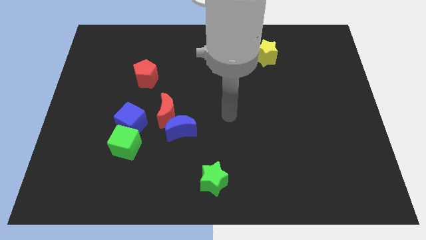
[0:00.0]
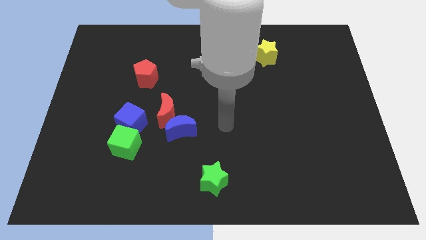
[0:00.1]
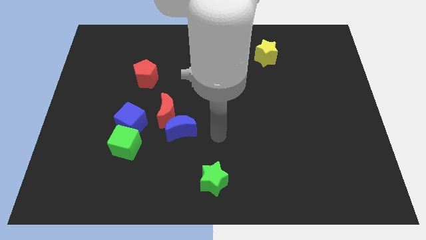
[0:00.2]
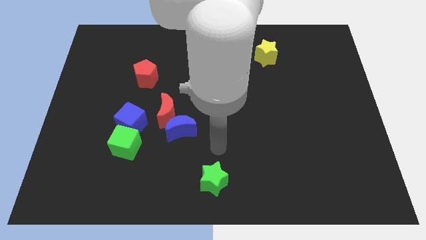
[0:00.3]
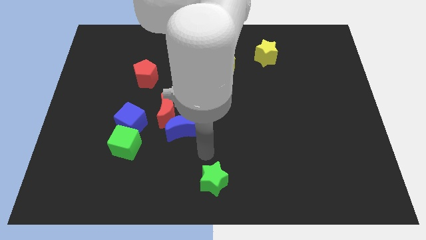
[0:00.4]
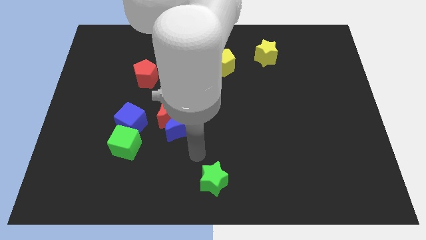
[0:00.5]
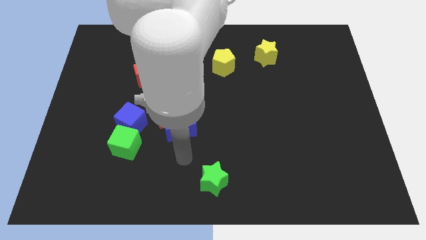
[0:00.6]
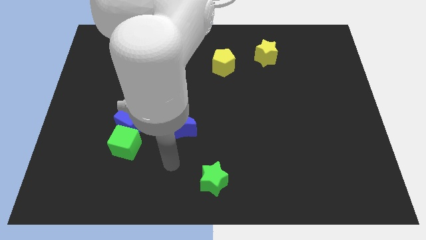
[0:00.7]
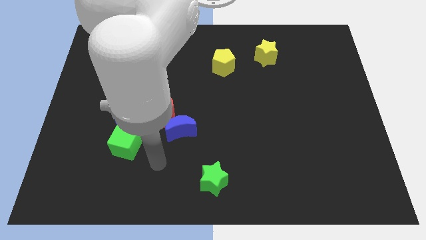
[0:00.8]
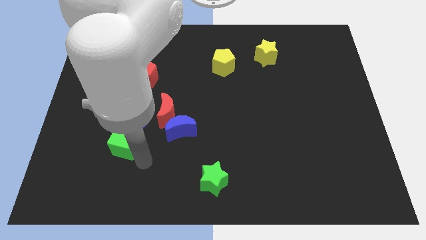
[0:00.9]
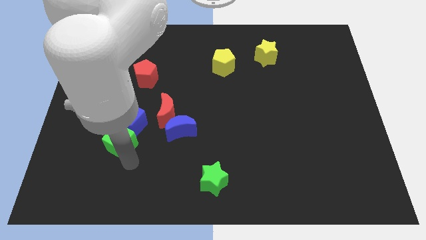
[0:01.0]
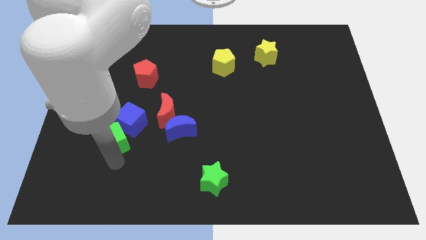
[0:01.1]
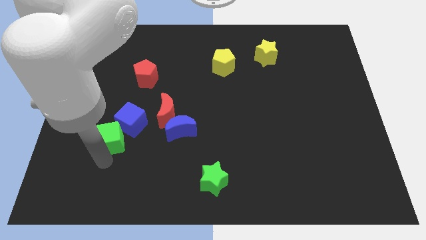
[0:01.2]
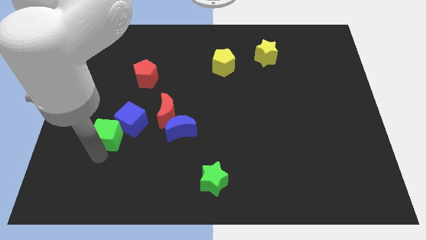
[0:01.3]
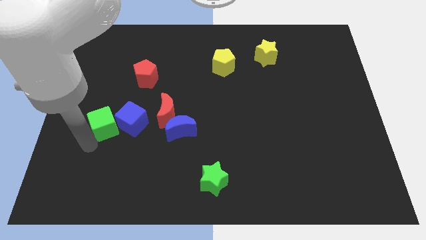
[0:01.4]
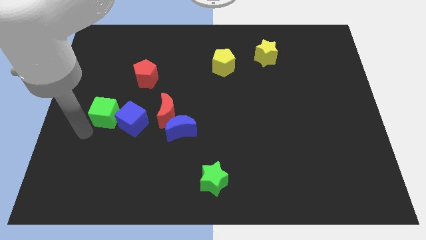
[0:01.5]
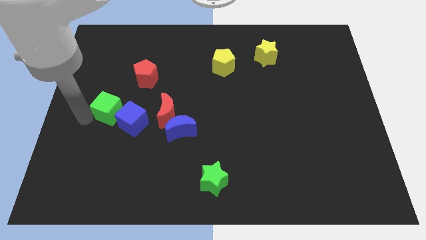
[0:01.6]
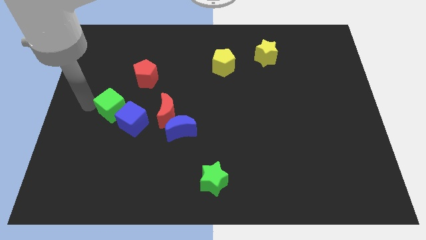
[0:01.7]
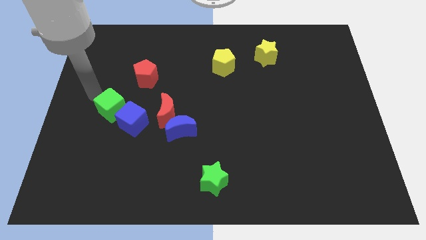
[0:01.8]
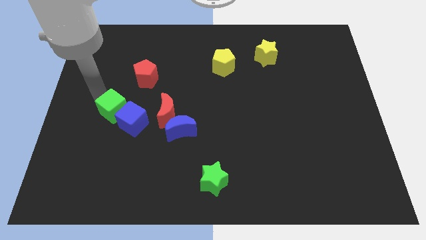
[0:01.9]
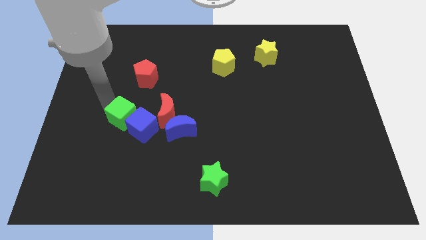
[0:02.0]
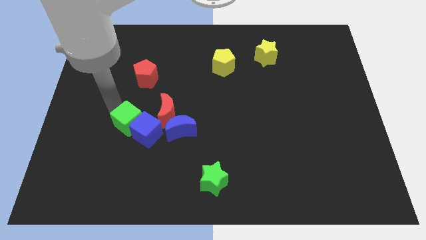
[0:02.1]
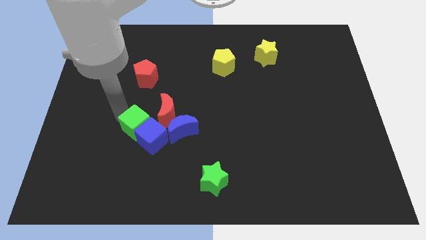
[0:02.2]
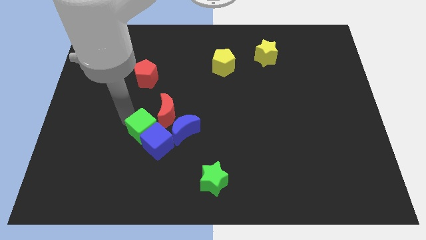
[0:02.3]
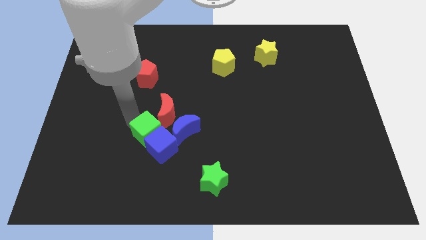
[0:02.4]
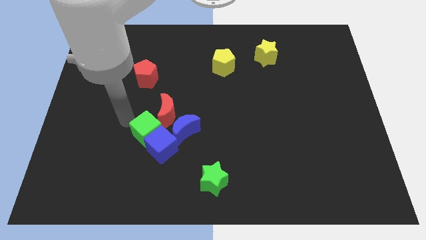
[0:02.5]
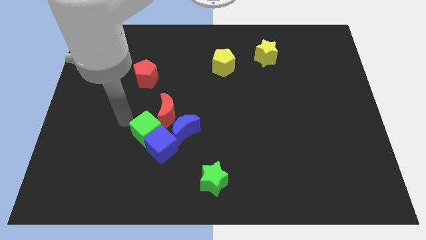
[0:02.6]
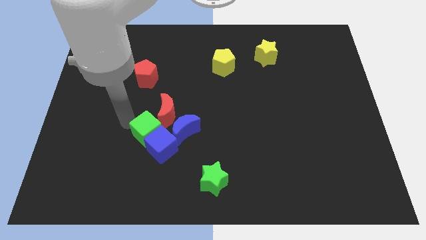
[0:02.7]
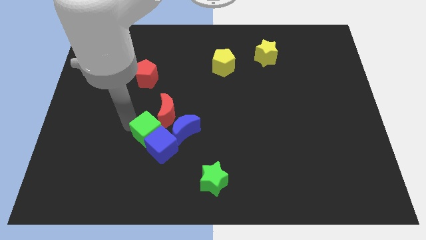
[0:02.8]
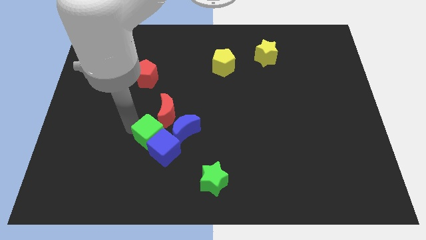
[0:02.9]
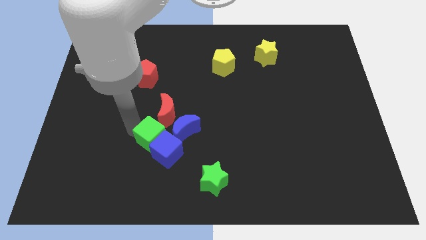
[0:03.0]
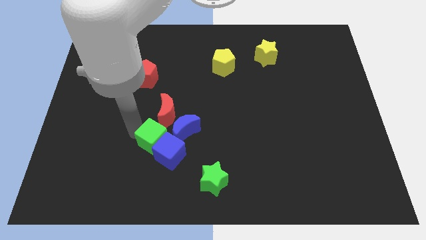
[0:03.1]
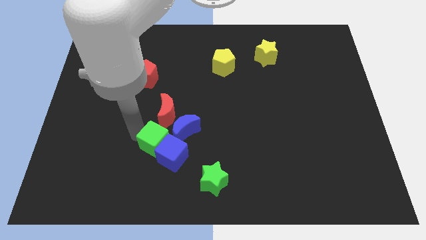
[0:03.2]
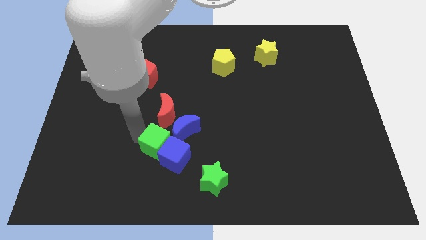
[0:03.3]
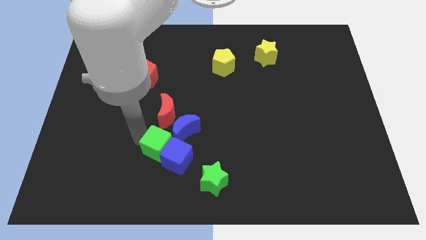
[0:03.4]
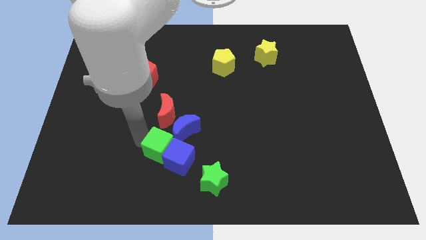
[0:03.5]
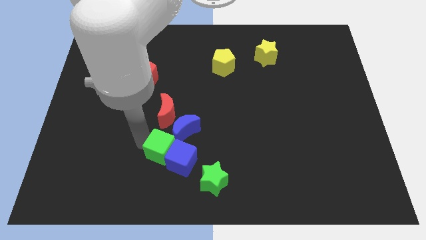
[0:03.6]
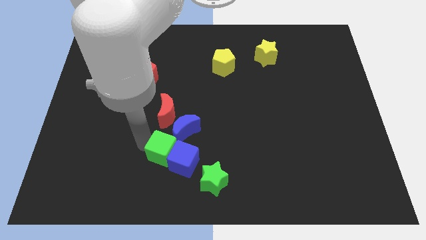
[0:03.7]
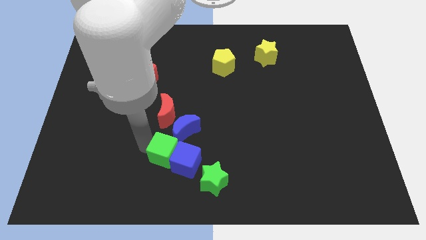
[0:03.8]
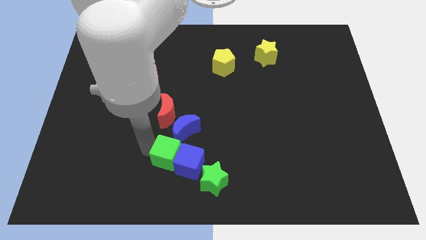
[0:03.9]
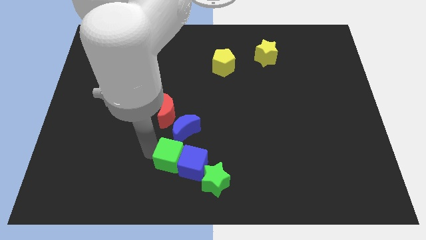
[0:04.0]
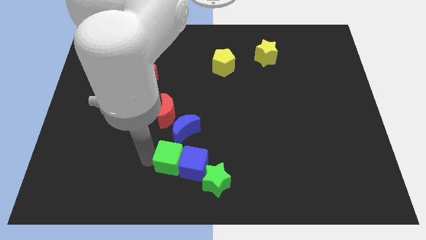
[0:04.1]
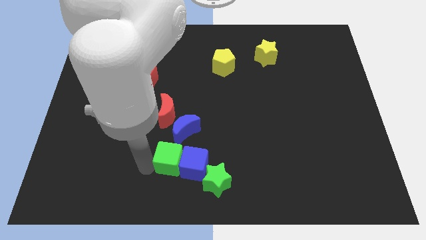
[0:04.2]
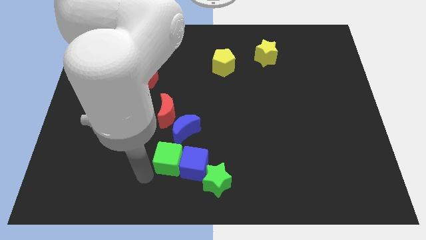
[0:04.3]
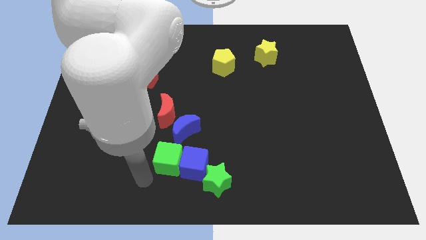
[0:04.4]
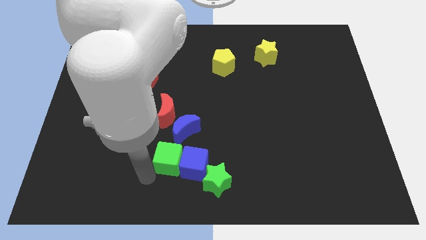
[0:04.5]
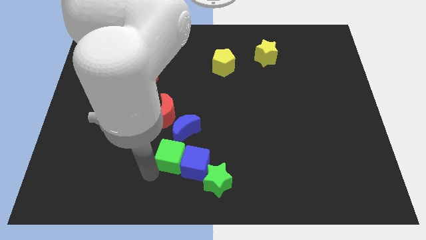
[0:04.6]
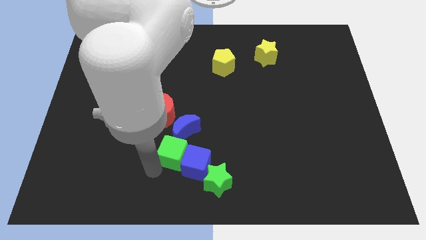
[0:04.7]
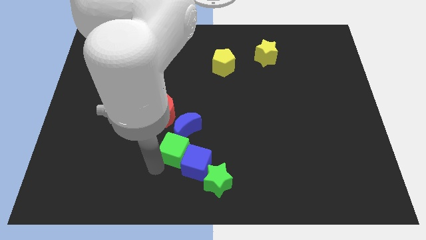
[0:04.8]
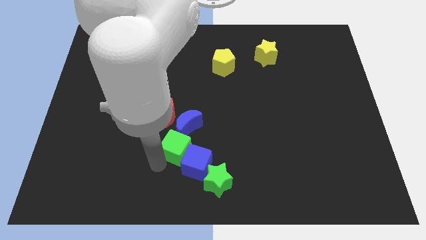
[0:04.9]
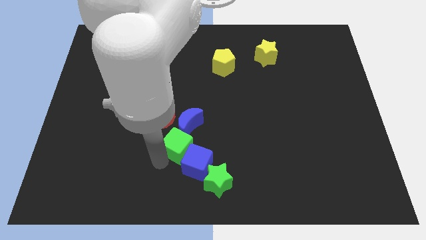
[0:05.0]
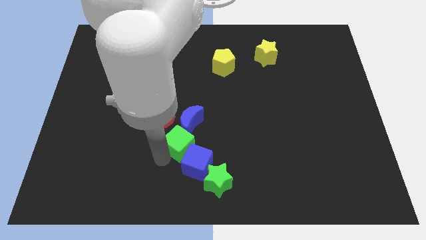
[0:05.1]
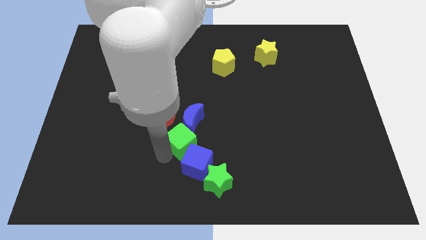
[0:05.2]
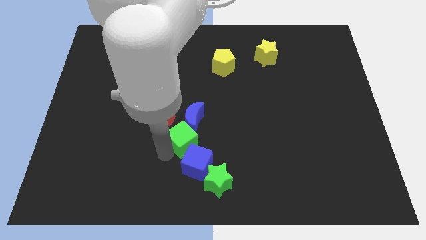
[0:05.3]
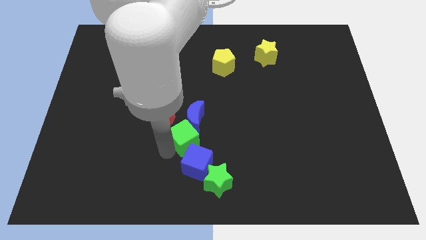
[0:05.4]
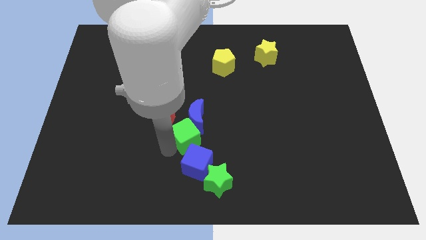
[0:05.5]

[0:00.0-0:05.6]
slide the green cube to the center
